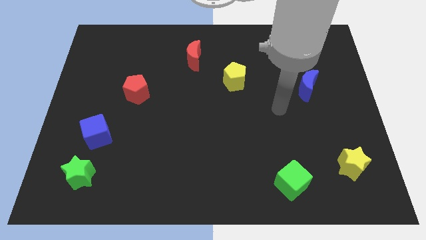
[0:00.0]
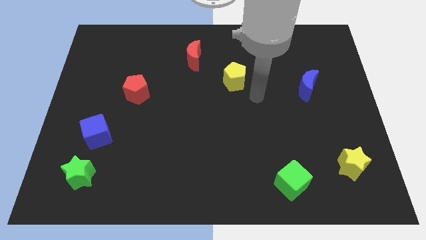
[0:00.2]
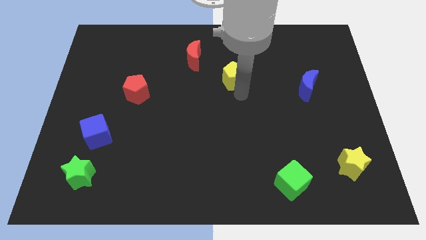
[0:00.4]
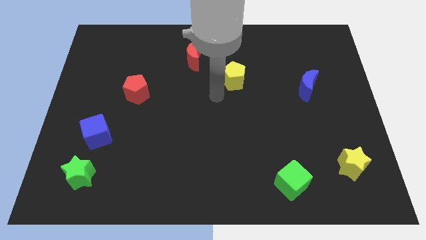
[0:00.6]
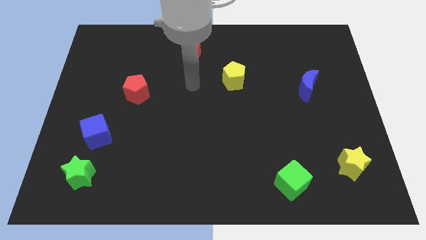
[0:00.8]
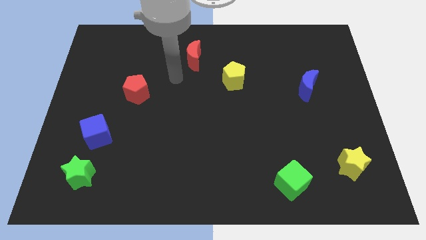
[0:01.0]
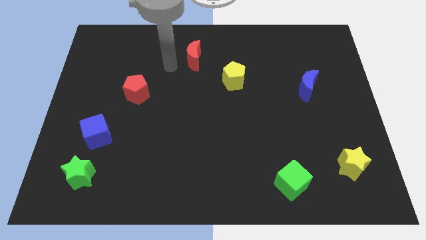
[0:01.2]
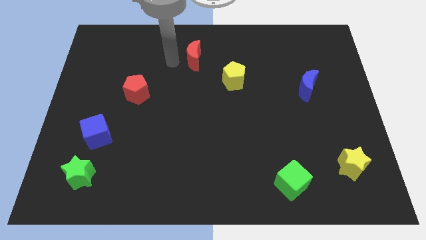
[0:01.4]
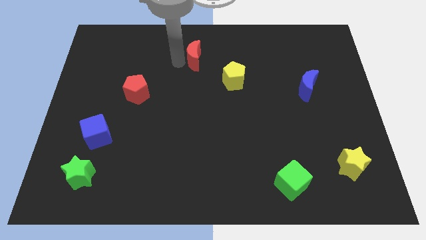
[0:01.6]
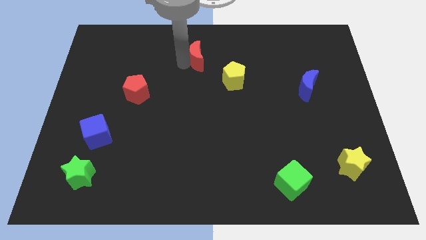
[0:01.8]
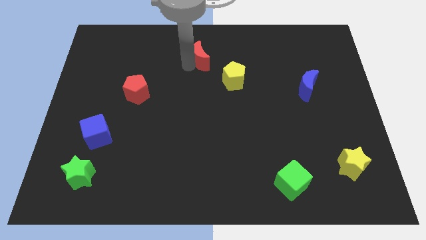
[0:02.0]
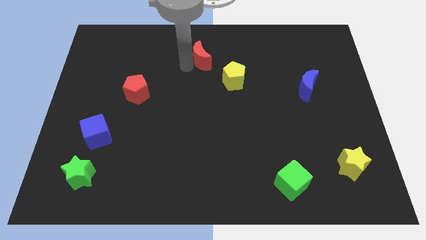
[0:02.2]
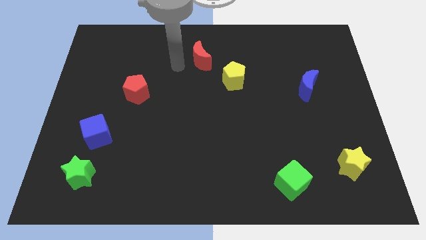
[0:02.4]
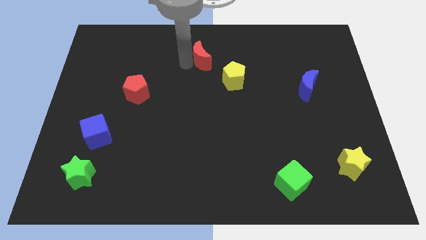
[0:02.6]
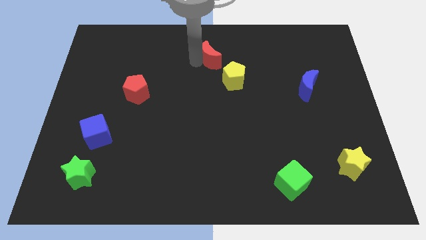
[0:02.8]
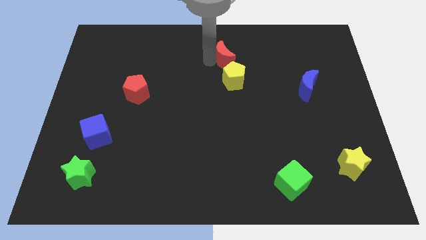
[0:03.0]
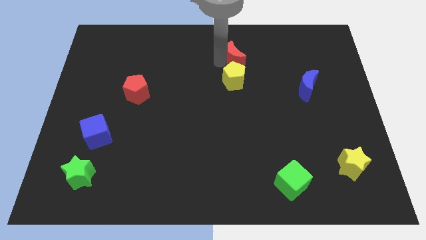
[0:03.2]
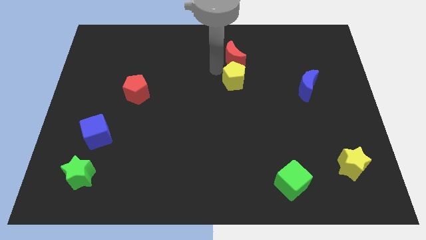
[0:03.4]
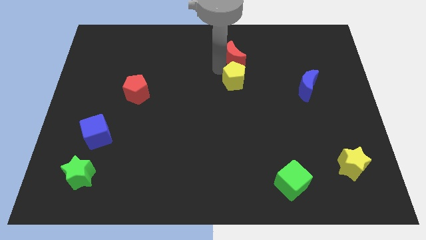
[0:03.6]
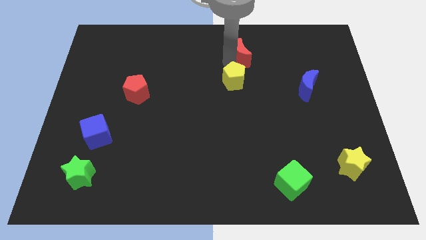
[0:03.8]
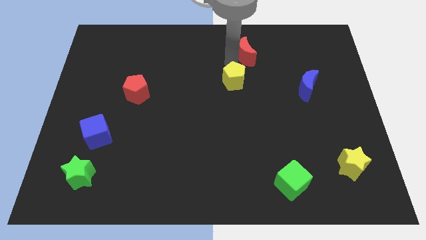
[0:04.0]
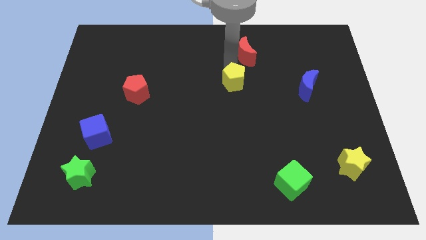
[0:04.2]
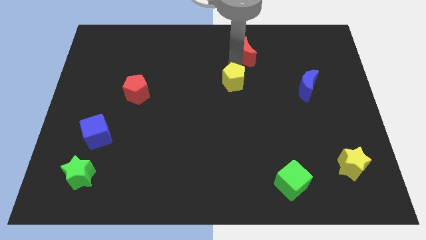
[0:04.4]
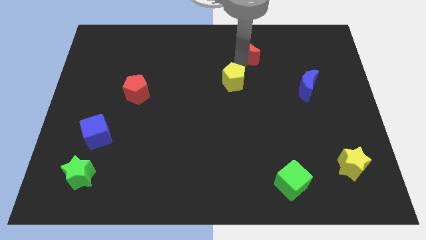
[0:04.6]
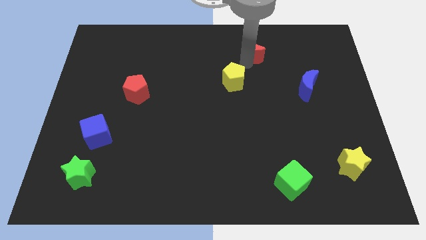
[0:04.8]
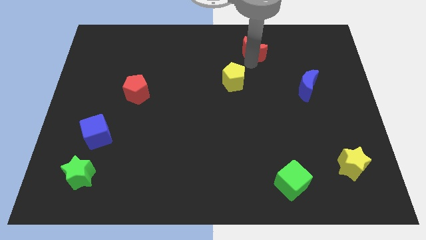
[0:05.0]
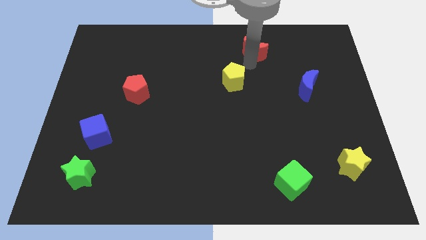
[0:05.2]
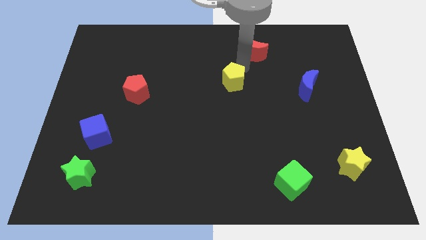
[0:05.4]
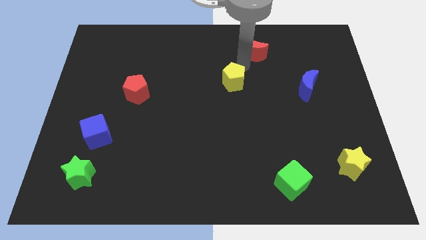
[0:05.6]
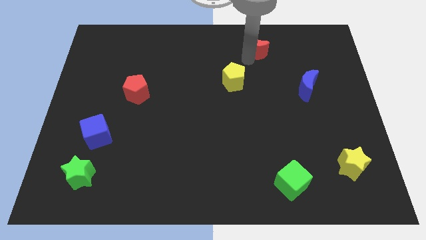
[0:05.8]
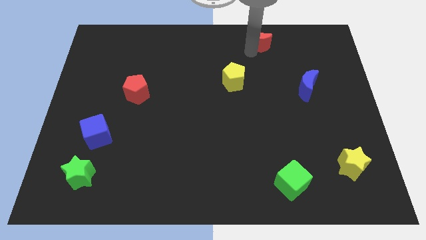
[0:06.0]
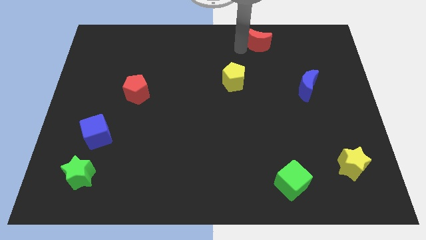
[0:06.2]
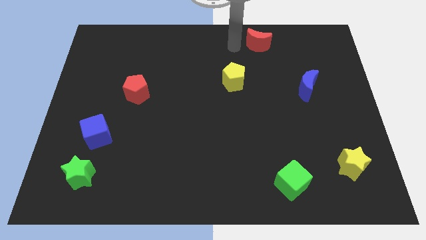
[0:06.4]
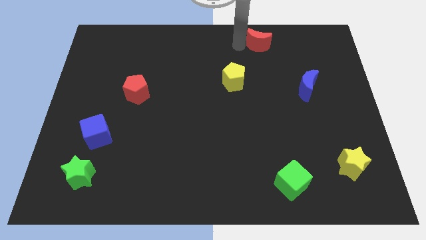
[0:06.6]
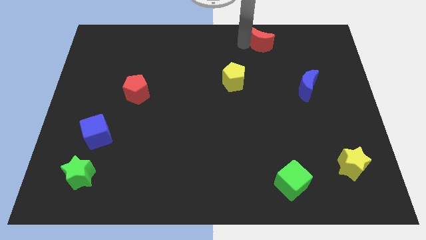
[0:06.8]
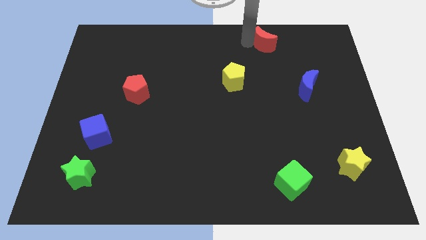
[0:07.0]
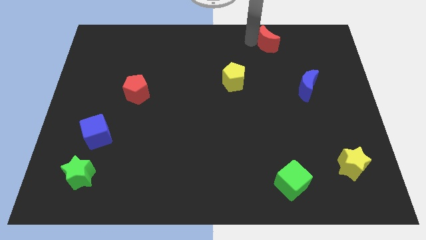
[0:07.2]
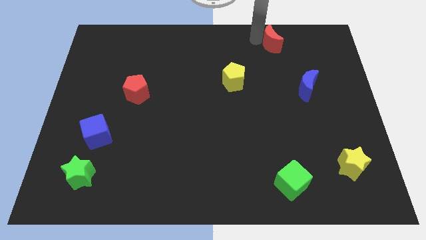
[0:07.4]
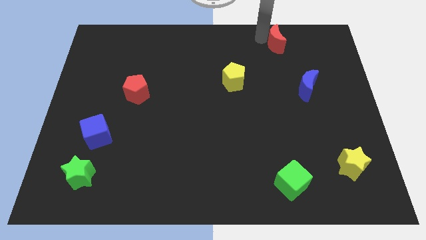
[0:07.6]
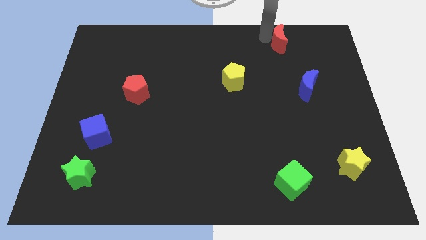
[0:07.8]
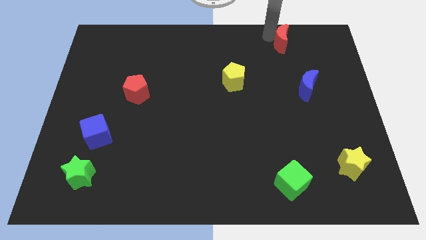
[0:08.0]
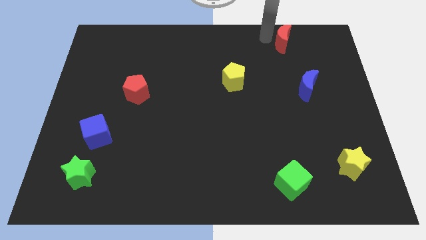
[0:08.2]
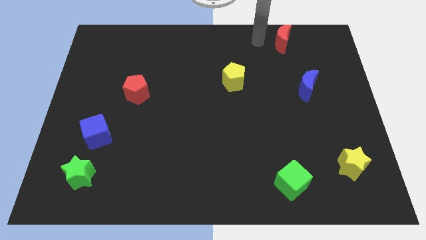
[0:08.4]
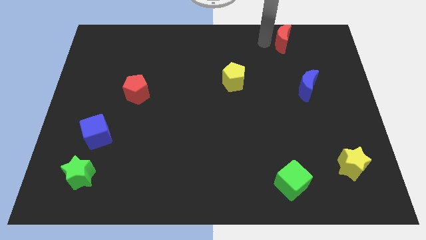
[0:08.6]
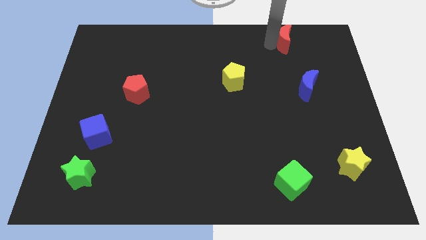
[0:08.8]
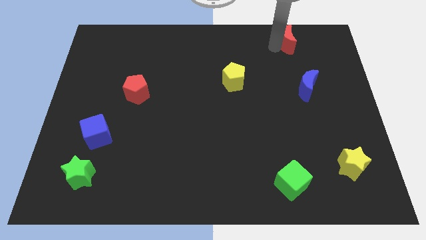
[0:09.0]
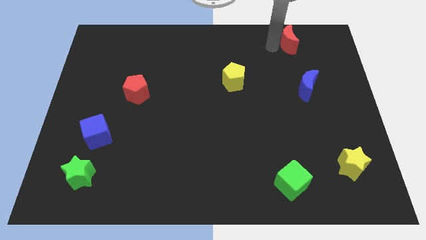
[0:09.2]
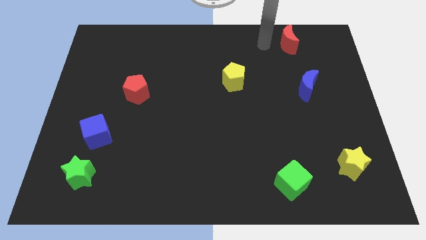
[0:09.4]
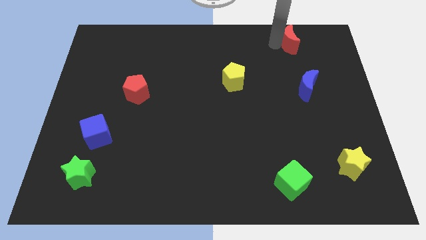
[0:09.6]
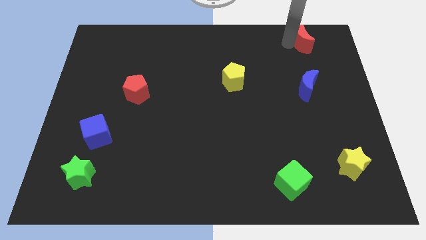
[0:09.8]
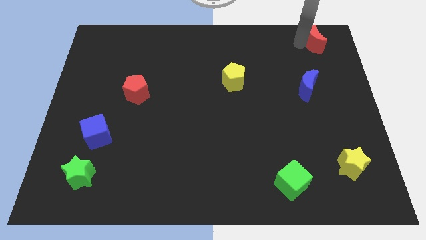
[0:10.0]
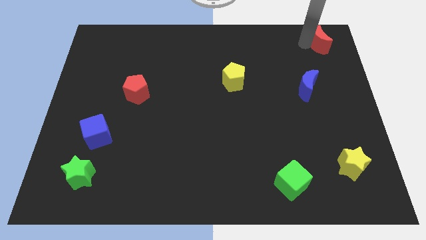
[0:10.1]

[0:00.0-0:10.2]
push the red moon to the top right of the board

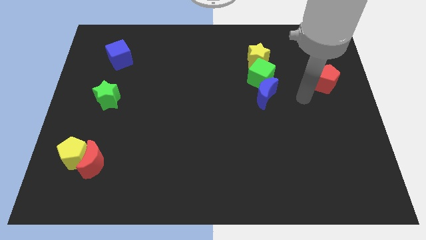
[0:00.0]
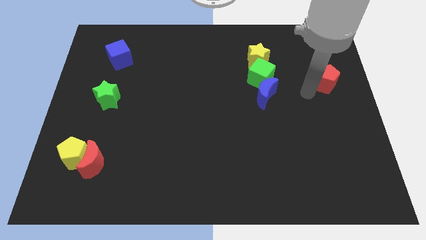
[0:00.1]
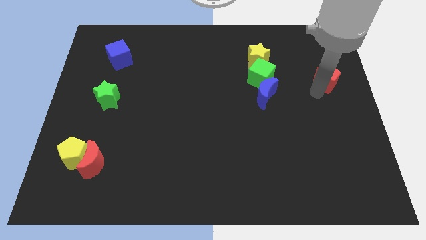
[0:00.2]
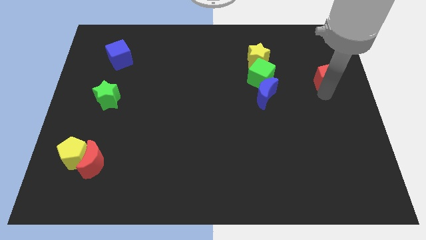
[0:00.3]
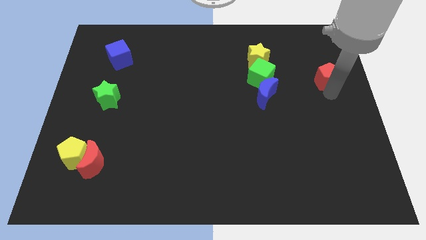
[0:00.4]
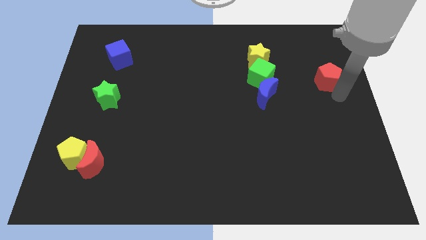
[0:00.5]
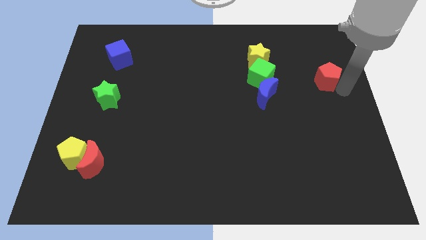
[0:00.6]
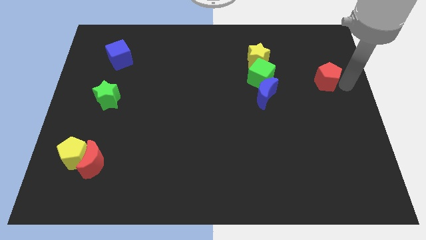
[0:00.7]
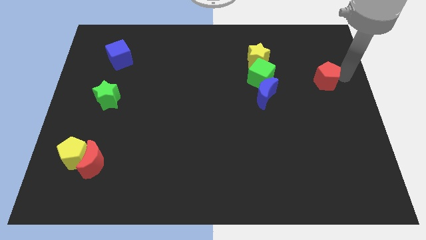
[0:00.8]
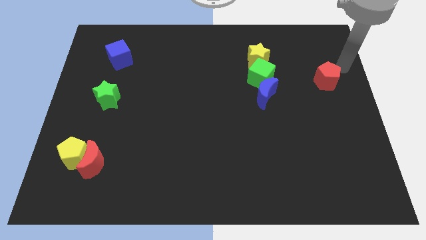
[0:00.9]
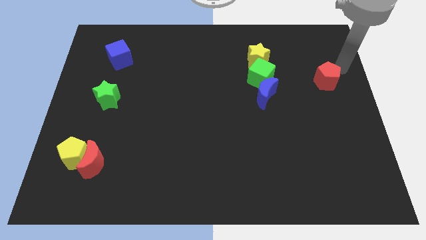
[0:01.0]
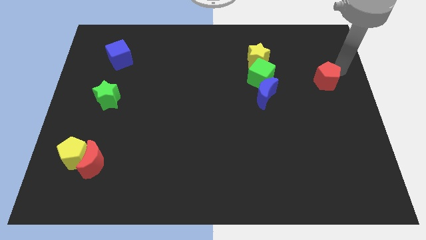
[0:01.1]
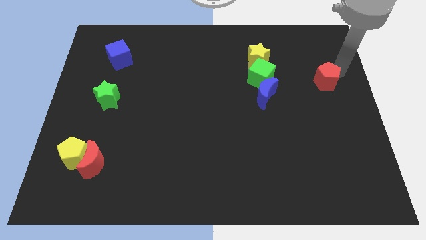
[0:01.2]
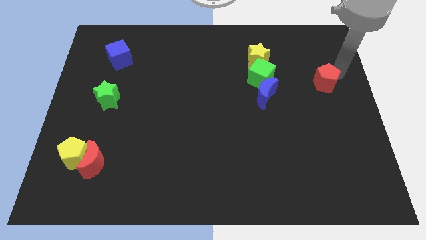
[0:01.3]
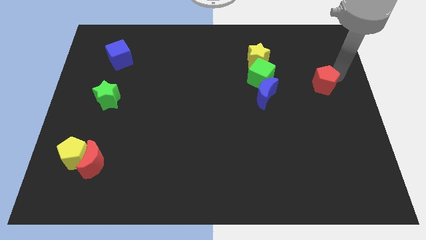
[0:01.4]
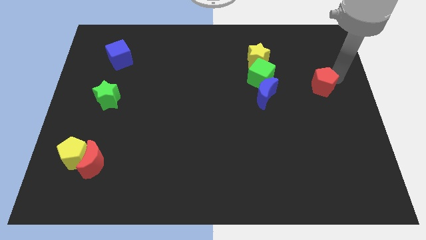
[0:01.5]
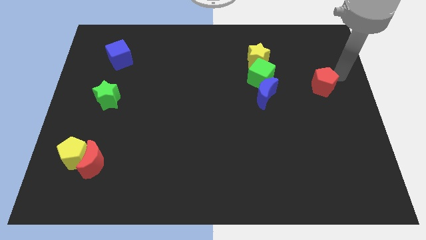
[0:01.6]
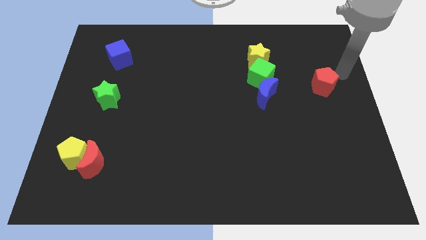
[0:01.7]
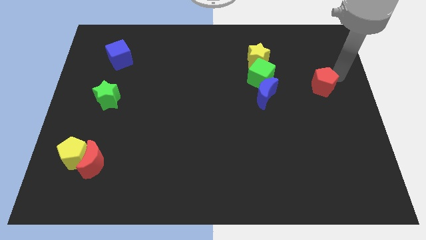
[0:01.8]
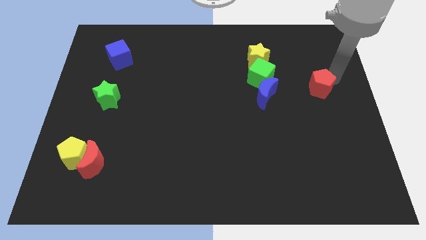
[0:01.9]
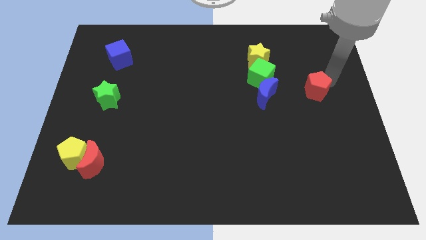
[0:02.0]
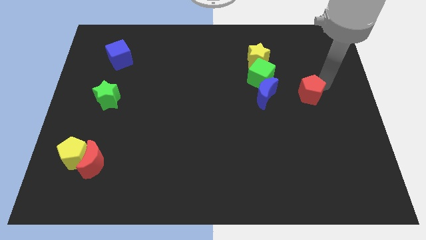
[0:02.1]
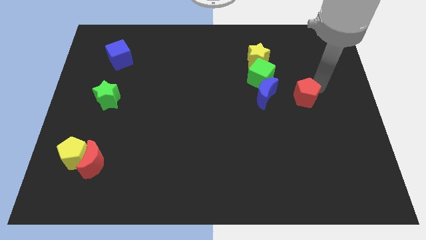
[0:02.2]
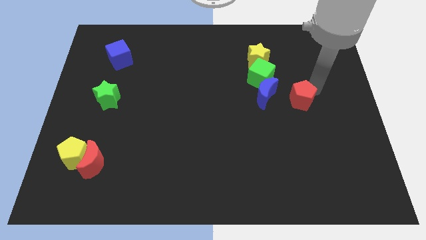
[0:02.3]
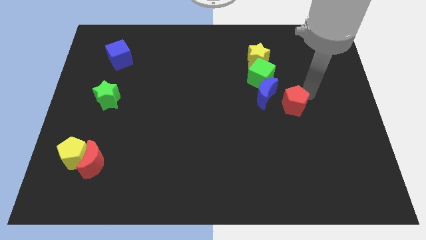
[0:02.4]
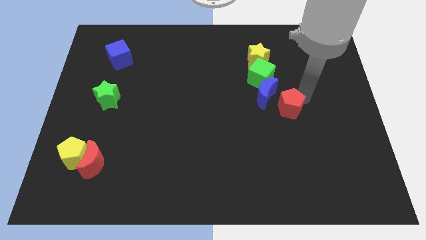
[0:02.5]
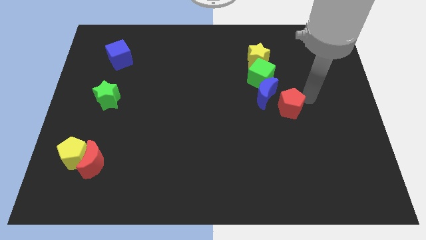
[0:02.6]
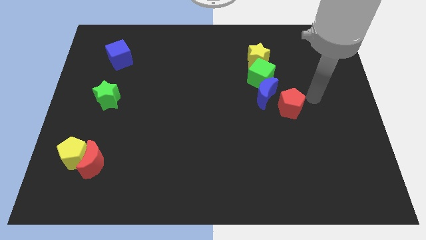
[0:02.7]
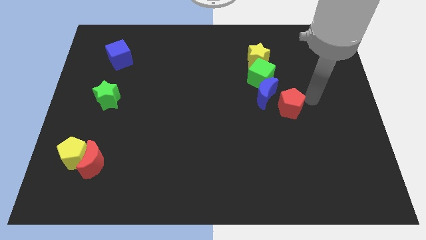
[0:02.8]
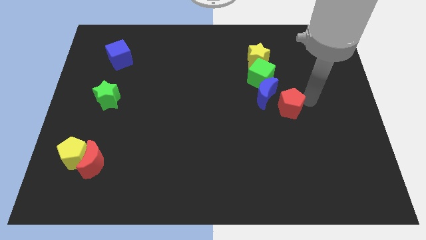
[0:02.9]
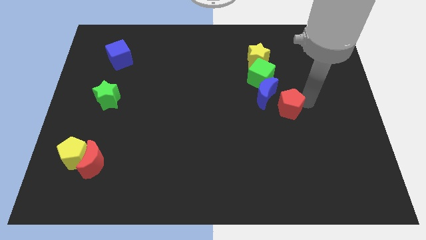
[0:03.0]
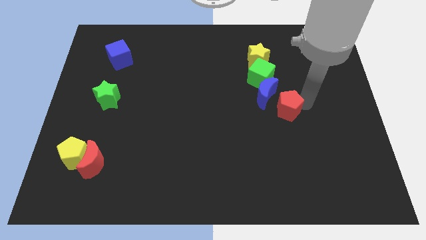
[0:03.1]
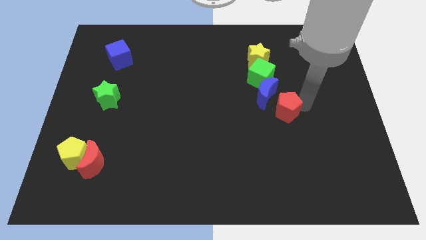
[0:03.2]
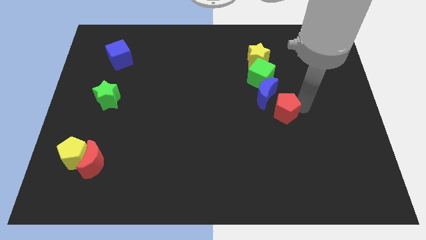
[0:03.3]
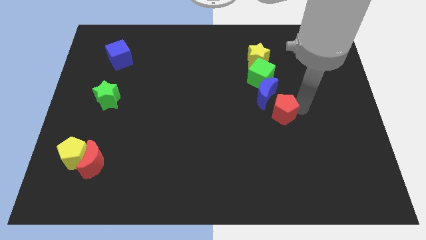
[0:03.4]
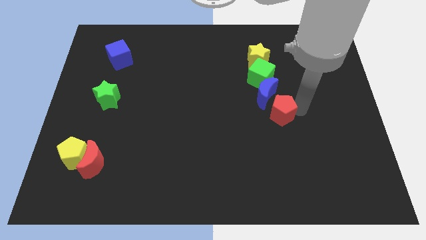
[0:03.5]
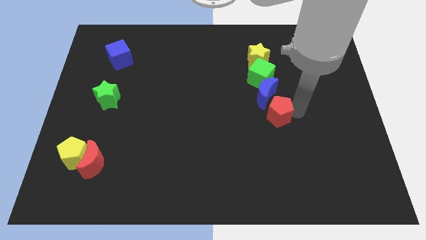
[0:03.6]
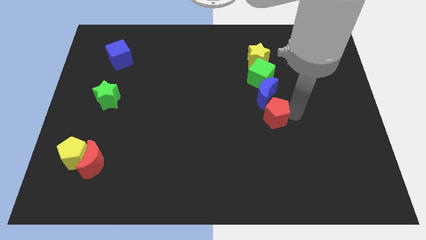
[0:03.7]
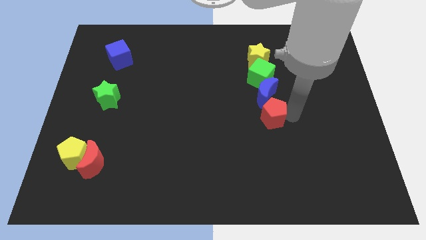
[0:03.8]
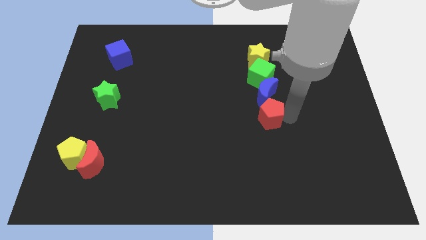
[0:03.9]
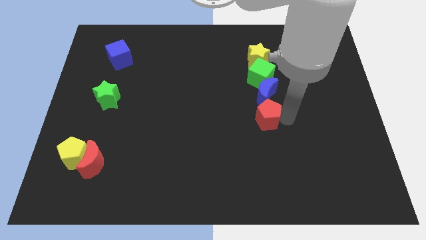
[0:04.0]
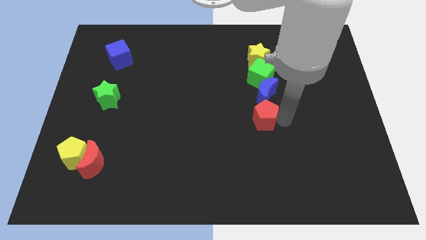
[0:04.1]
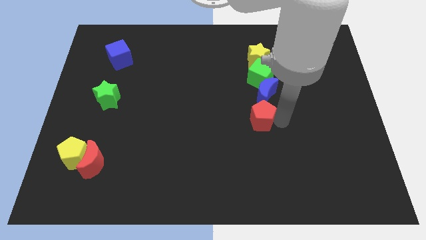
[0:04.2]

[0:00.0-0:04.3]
put the red pentagon to the middle
